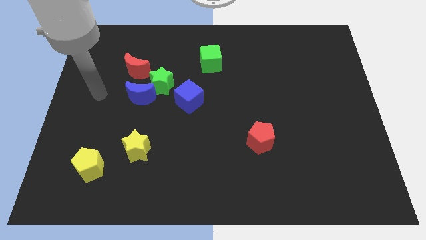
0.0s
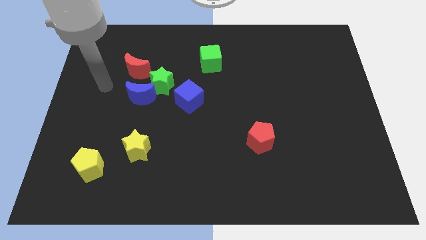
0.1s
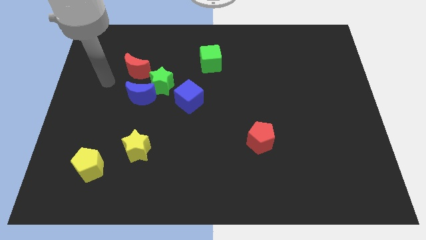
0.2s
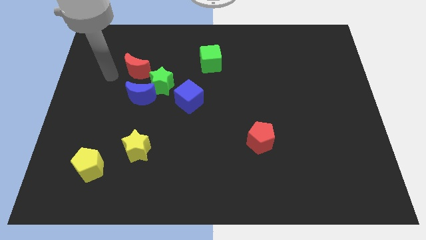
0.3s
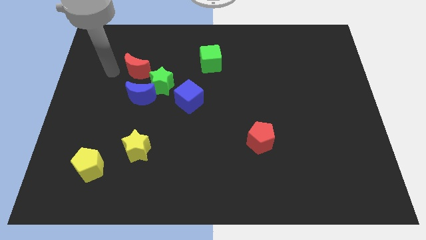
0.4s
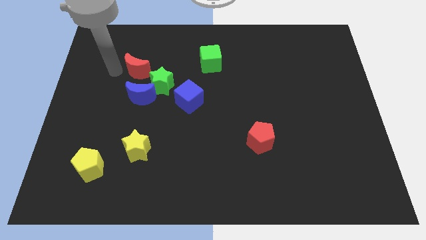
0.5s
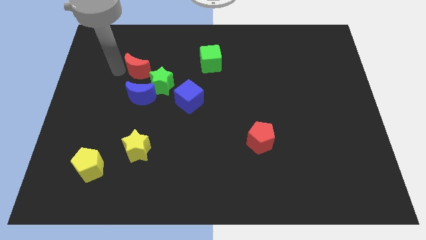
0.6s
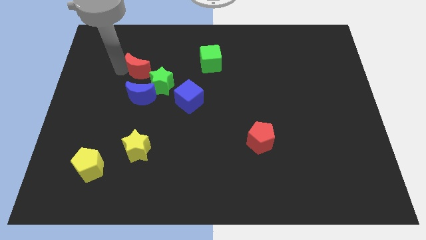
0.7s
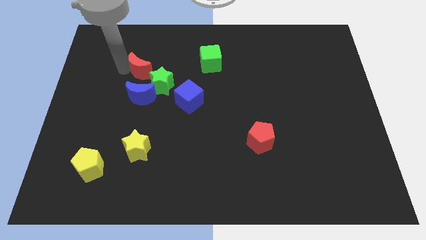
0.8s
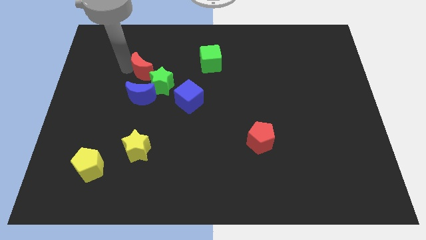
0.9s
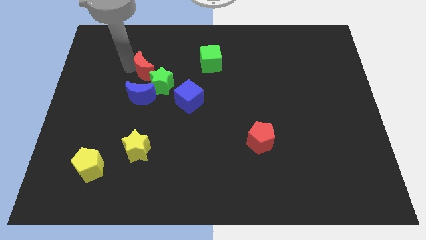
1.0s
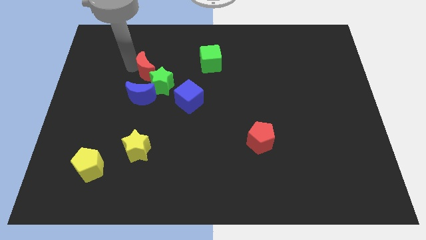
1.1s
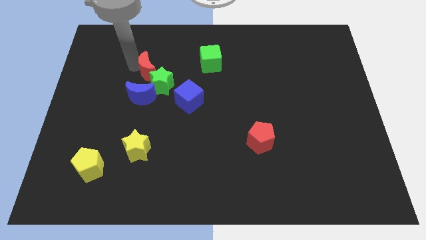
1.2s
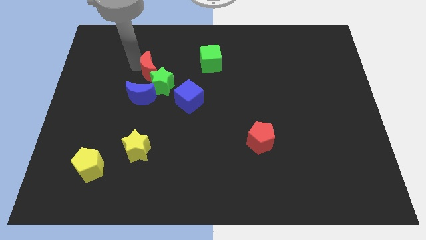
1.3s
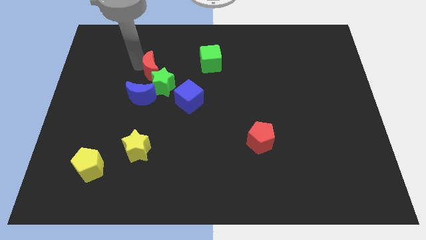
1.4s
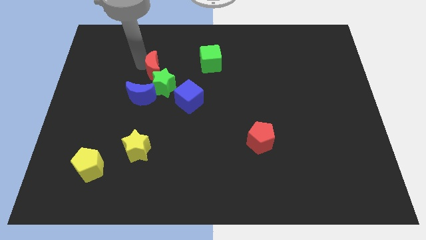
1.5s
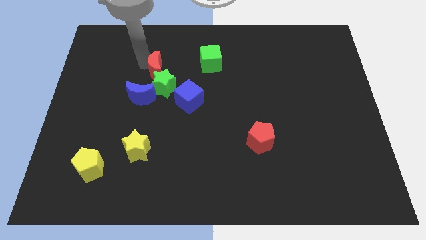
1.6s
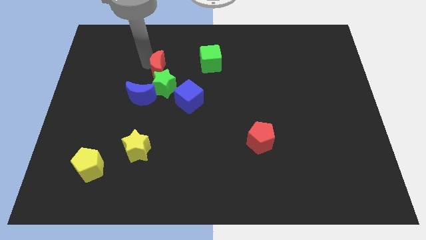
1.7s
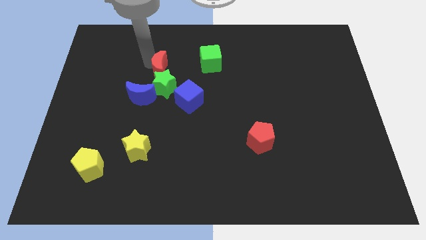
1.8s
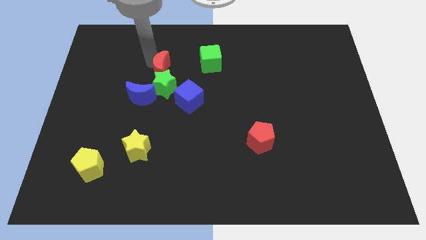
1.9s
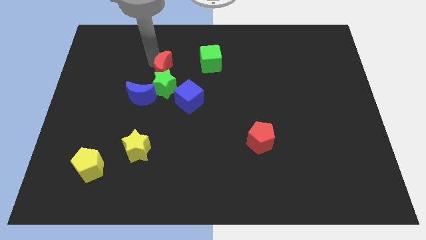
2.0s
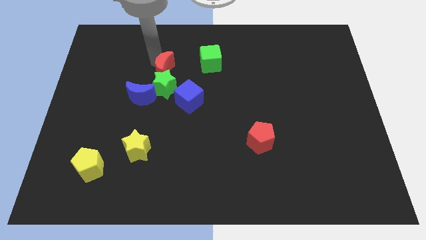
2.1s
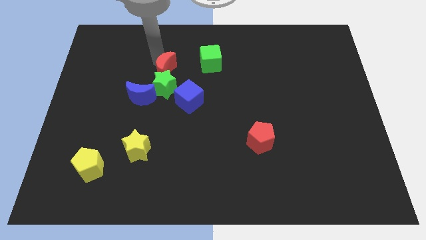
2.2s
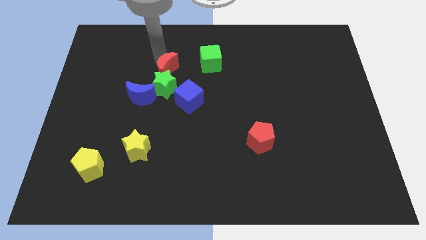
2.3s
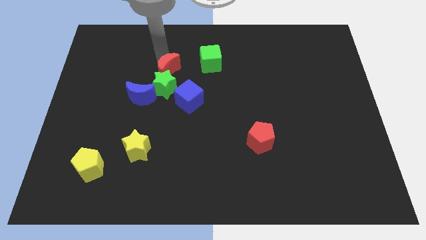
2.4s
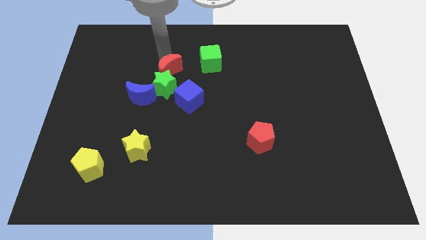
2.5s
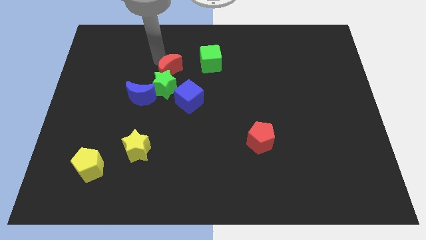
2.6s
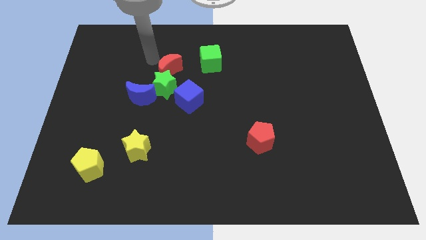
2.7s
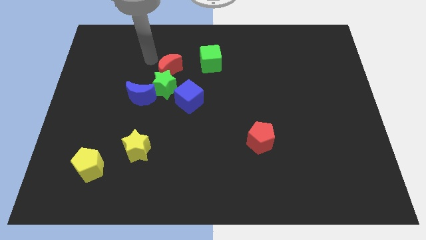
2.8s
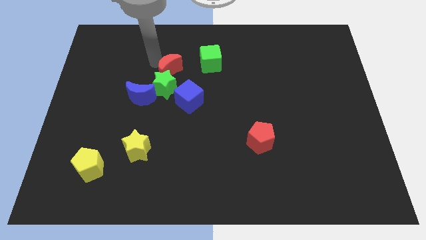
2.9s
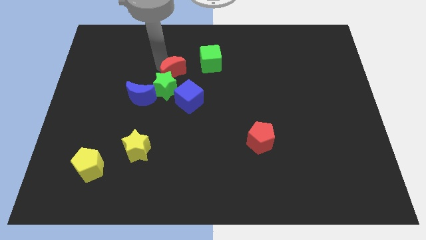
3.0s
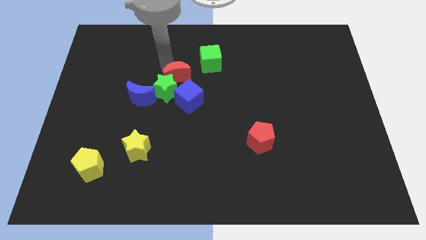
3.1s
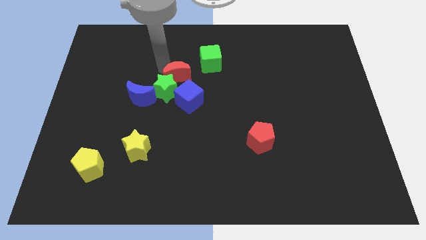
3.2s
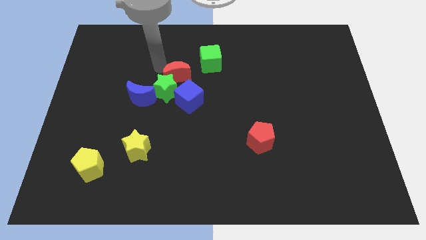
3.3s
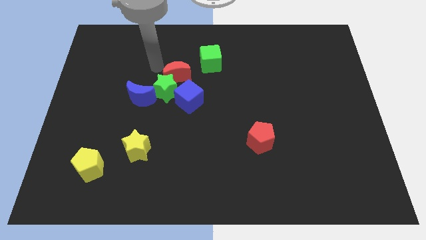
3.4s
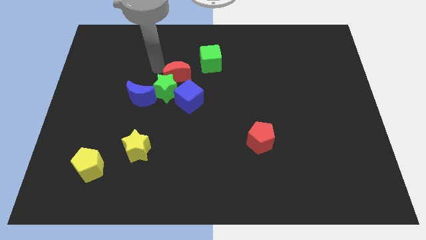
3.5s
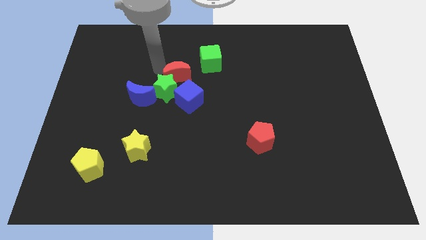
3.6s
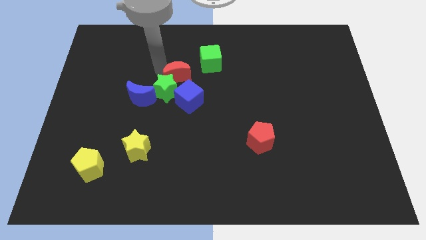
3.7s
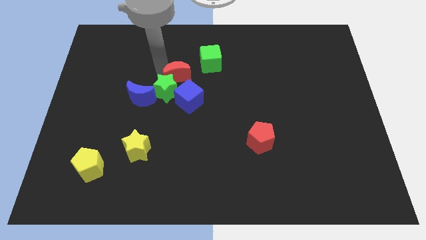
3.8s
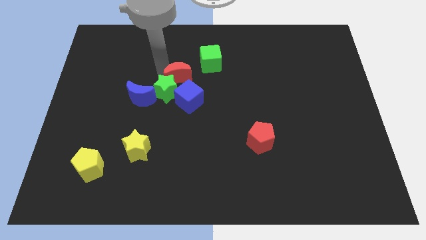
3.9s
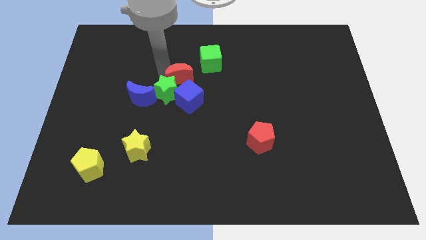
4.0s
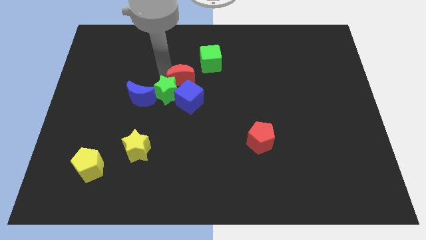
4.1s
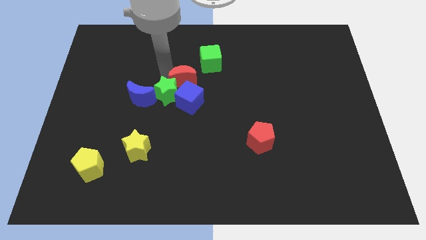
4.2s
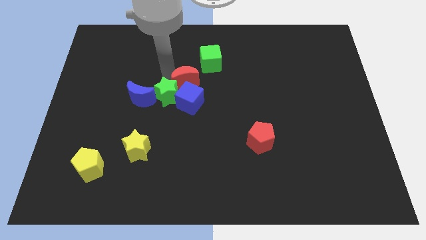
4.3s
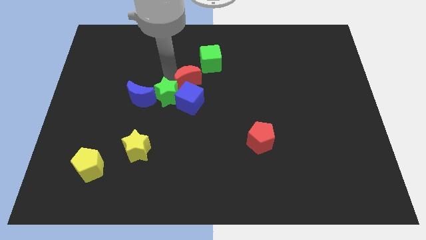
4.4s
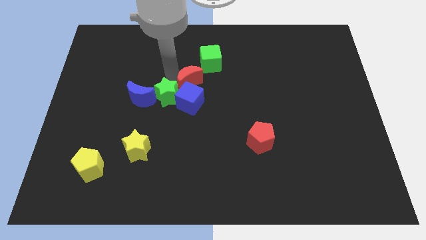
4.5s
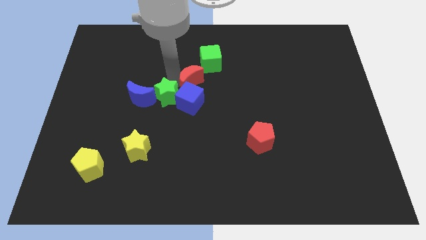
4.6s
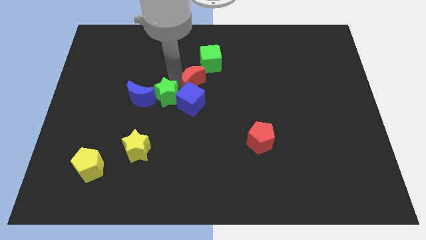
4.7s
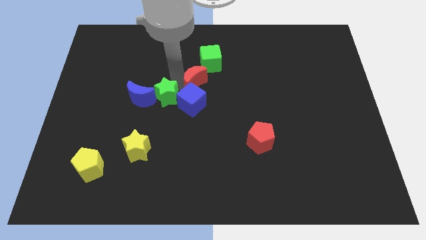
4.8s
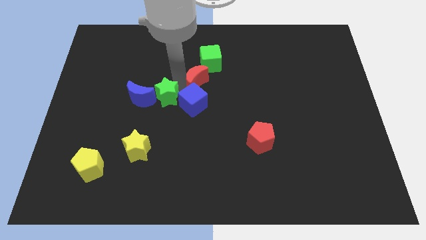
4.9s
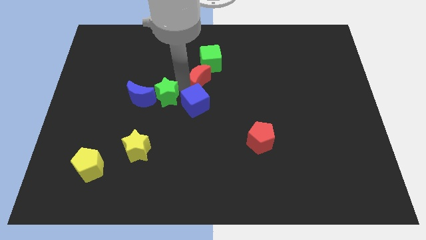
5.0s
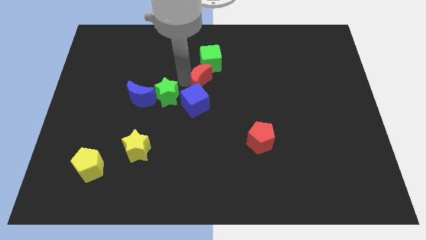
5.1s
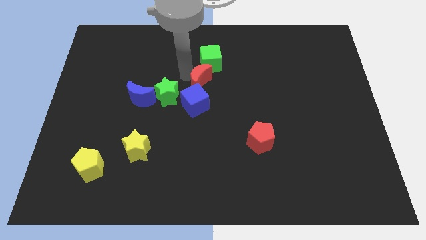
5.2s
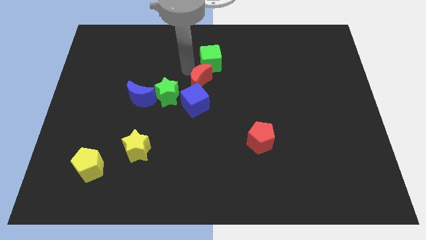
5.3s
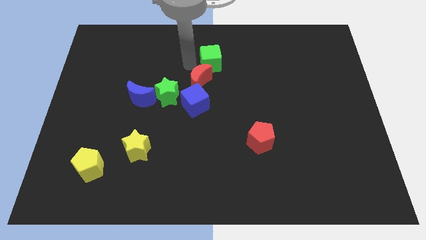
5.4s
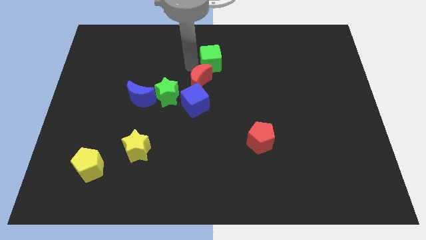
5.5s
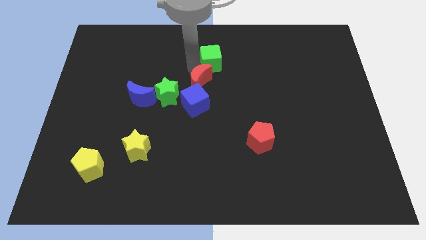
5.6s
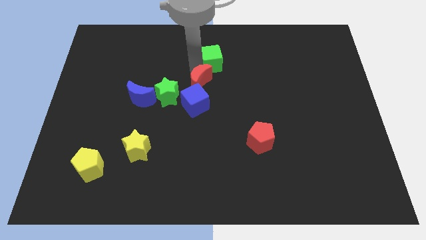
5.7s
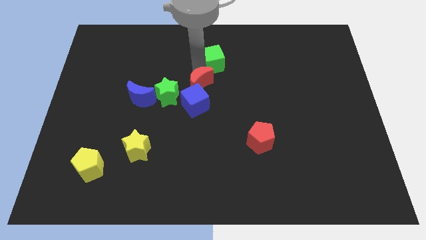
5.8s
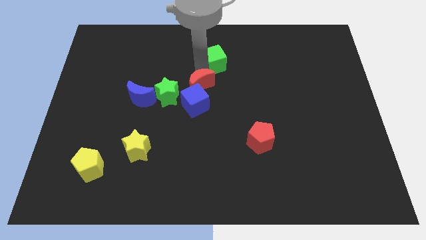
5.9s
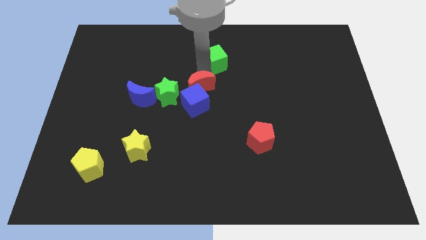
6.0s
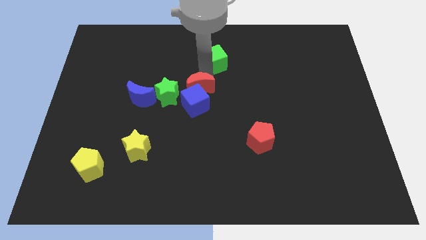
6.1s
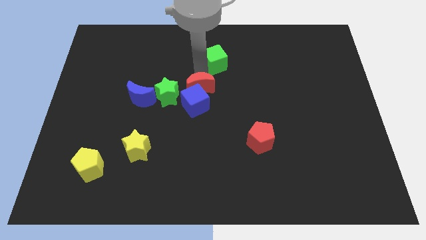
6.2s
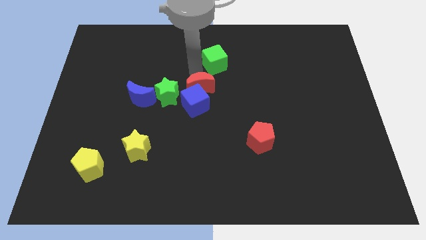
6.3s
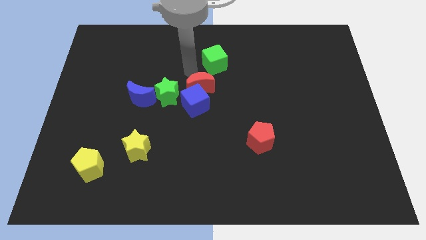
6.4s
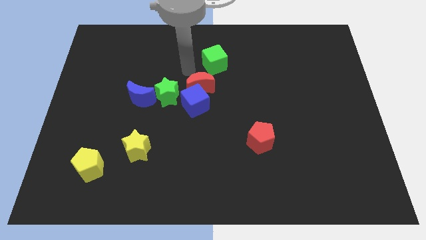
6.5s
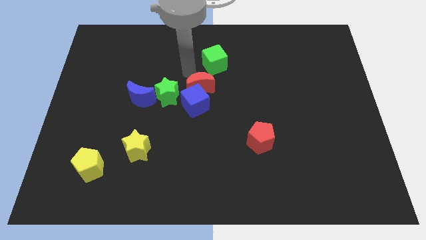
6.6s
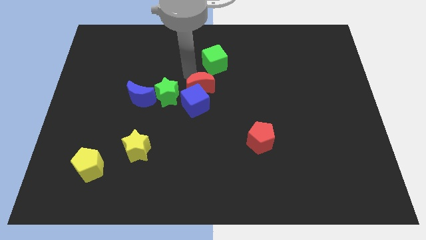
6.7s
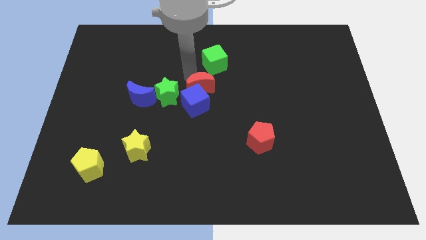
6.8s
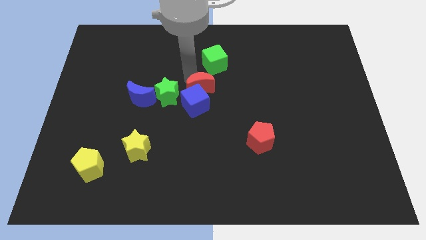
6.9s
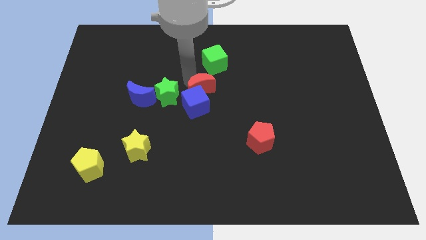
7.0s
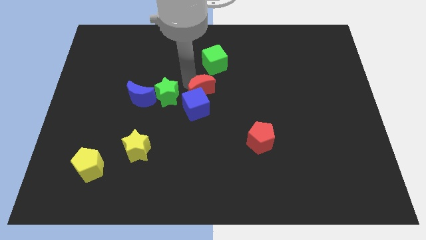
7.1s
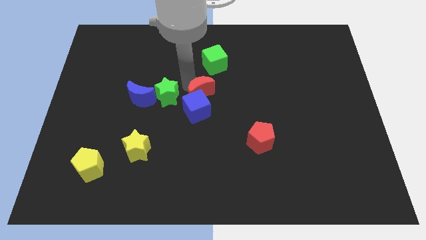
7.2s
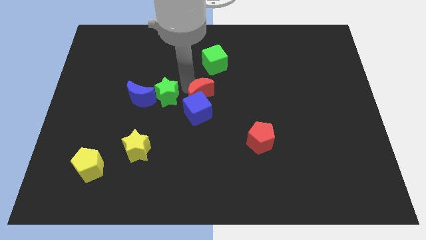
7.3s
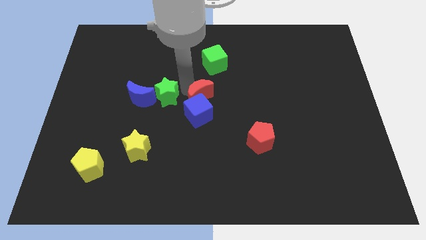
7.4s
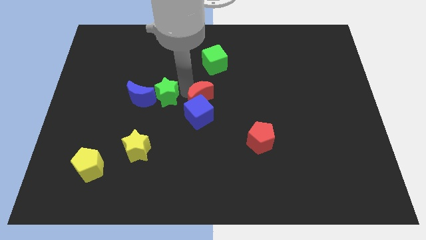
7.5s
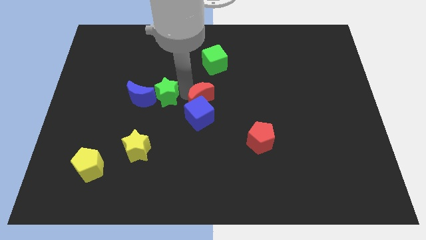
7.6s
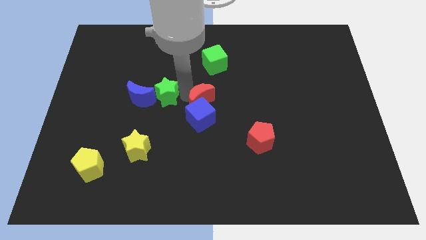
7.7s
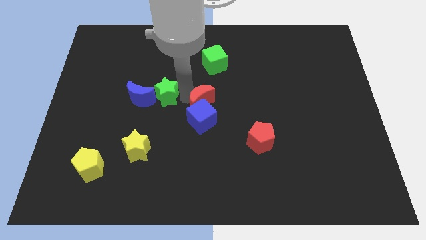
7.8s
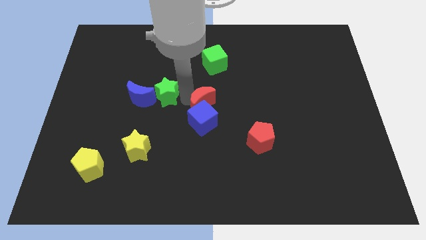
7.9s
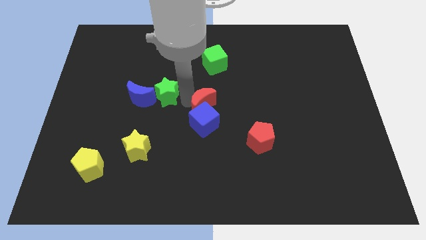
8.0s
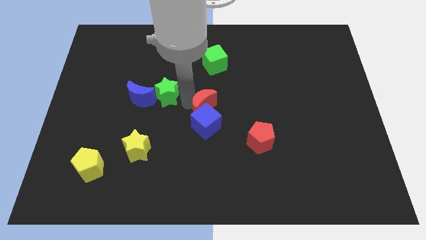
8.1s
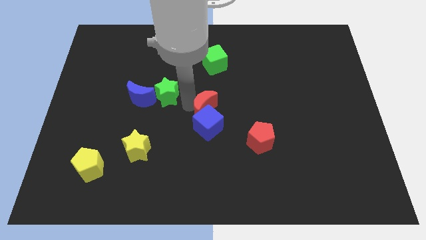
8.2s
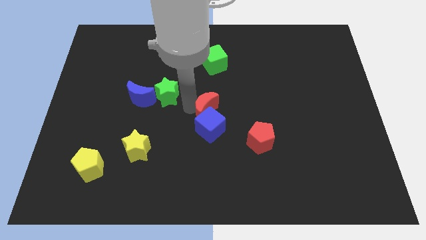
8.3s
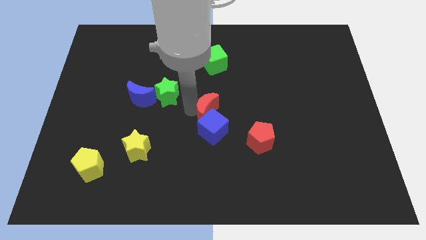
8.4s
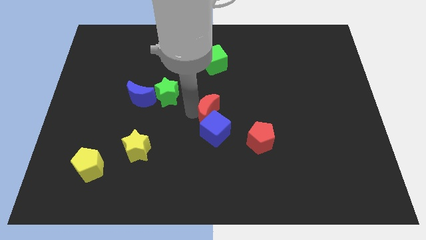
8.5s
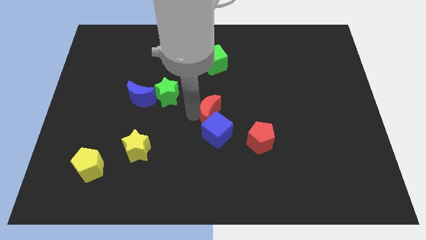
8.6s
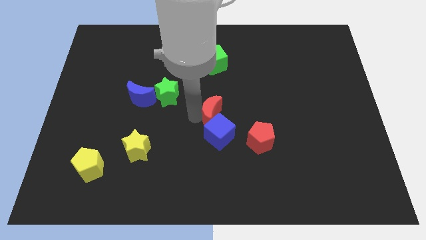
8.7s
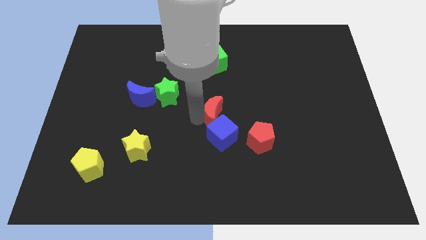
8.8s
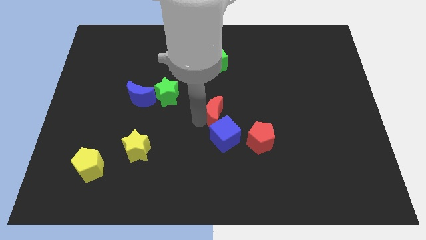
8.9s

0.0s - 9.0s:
put the red moon diagonally up and to the left of the red pentagon
